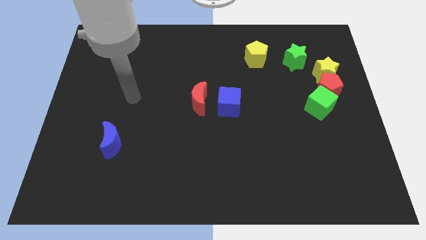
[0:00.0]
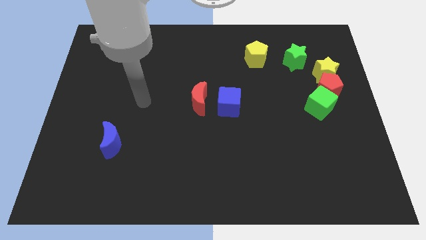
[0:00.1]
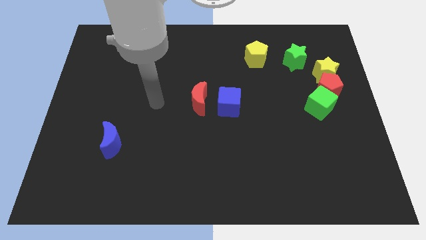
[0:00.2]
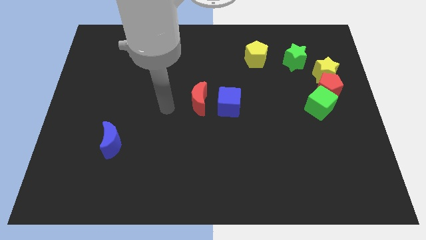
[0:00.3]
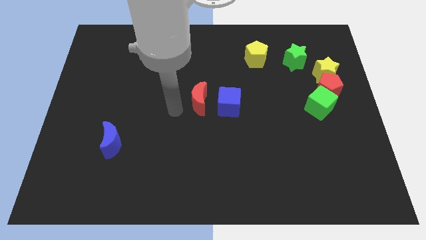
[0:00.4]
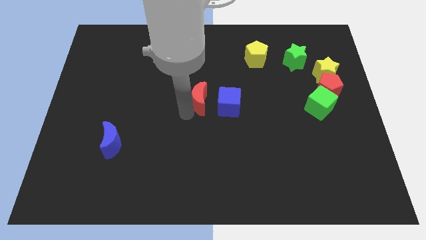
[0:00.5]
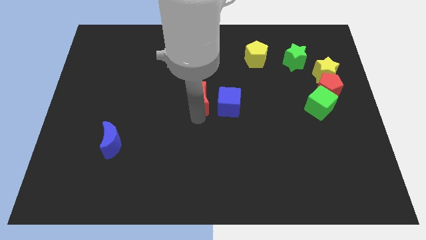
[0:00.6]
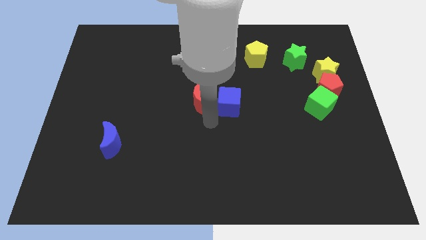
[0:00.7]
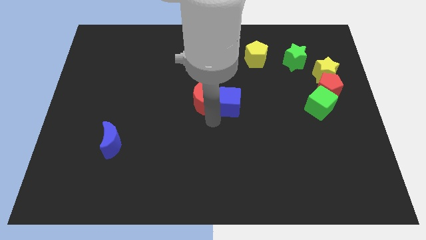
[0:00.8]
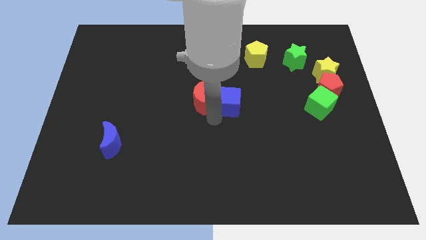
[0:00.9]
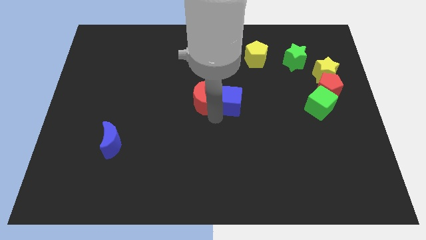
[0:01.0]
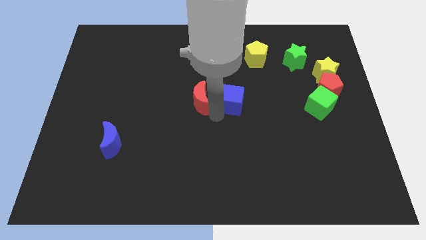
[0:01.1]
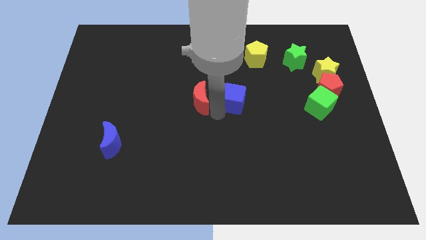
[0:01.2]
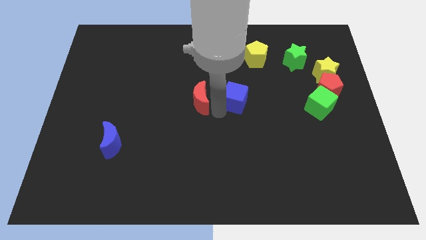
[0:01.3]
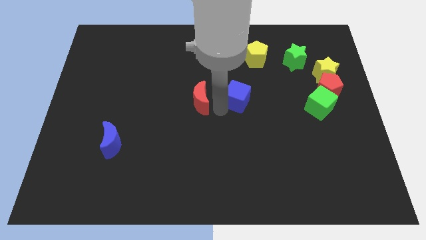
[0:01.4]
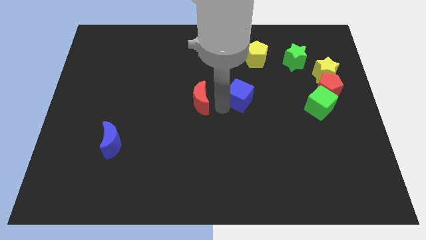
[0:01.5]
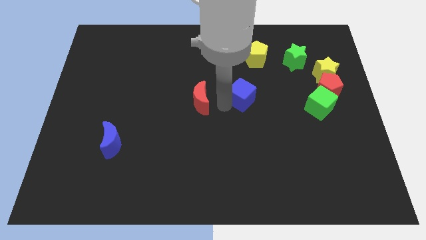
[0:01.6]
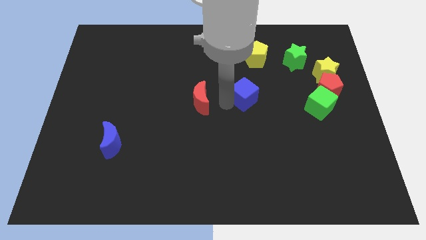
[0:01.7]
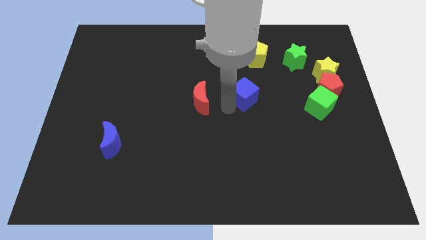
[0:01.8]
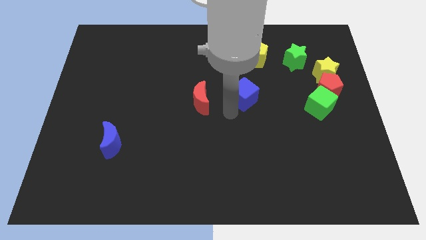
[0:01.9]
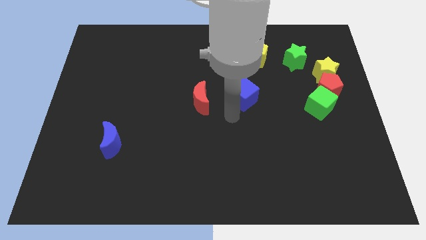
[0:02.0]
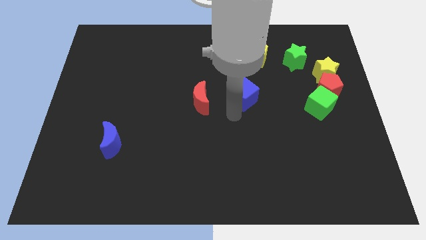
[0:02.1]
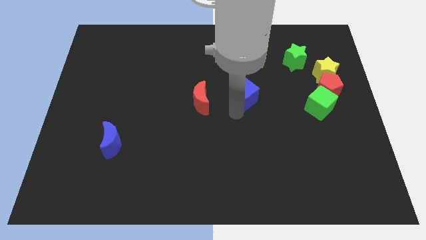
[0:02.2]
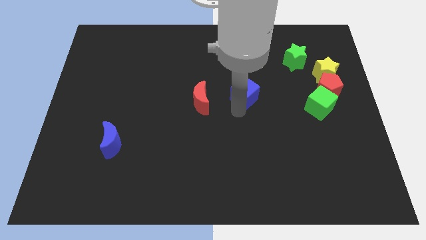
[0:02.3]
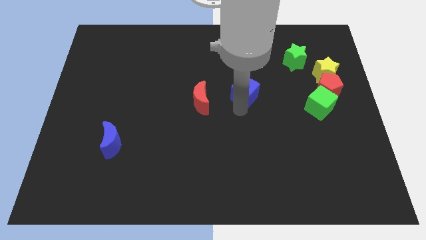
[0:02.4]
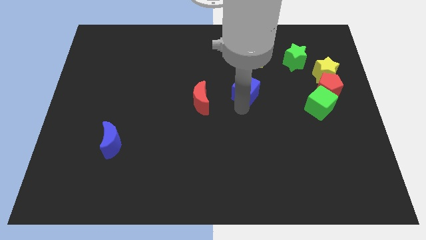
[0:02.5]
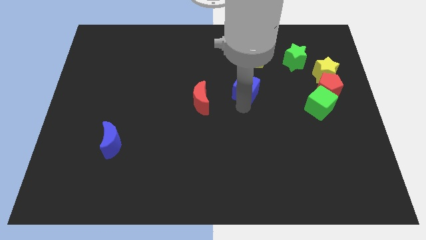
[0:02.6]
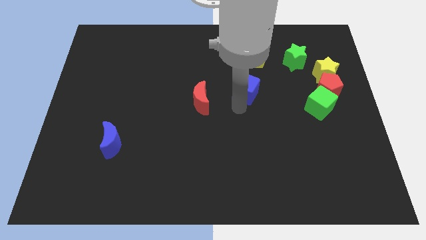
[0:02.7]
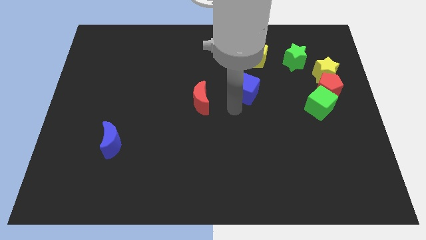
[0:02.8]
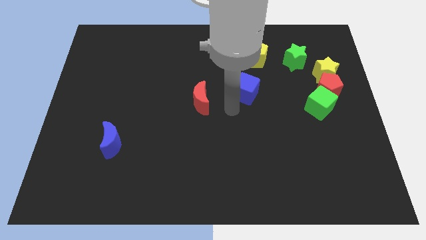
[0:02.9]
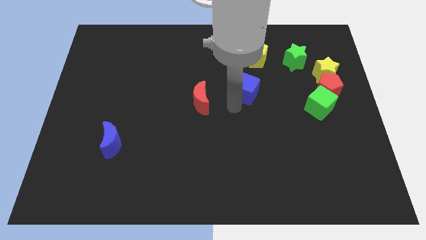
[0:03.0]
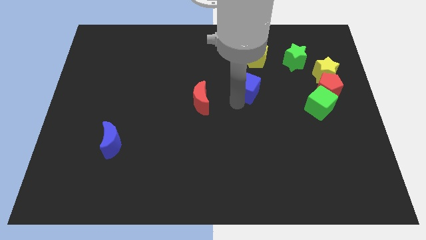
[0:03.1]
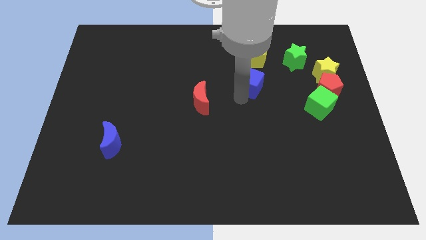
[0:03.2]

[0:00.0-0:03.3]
slightly move the blue cube diagonally up and to the right

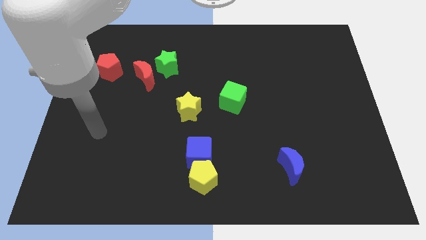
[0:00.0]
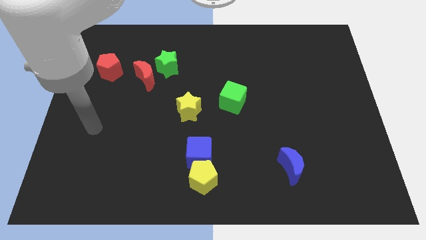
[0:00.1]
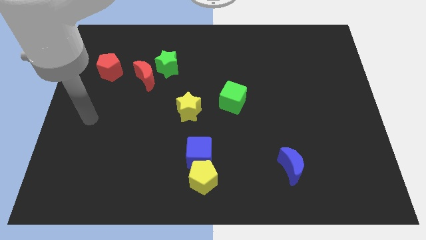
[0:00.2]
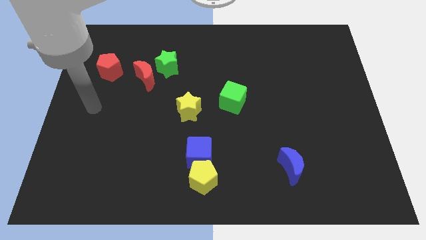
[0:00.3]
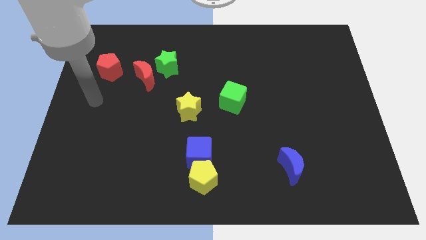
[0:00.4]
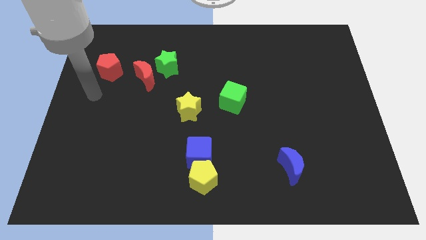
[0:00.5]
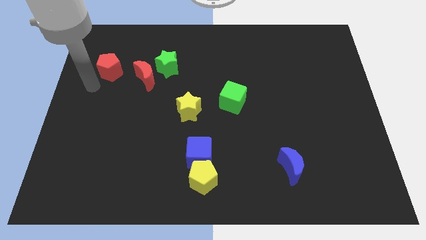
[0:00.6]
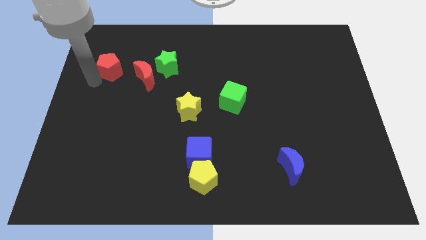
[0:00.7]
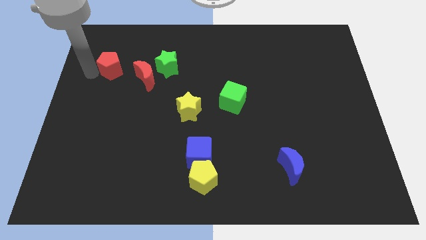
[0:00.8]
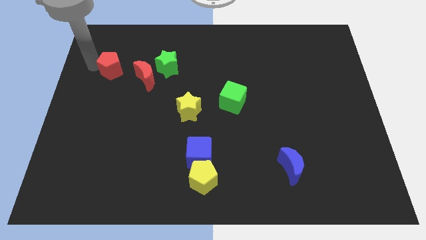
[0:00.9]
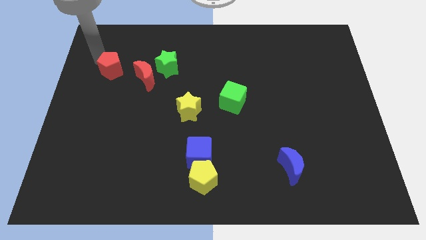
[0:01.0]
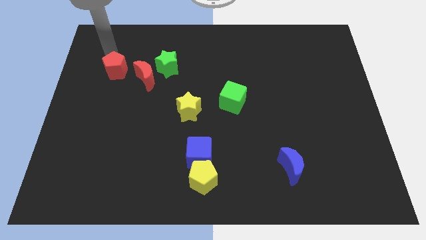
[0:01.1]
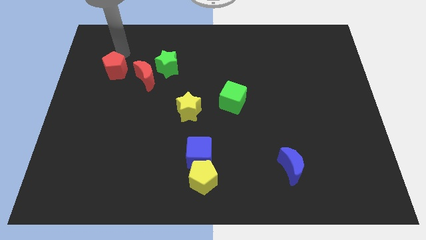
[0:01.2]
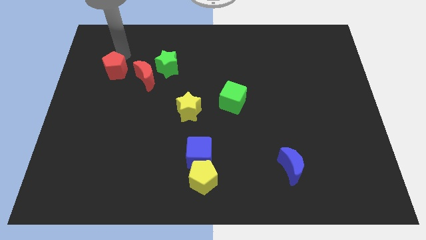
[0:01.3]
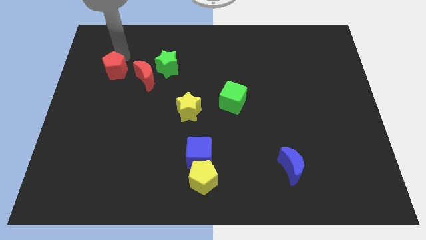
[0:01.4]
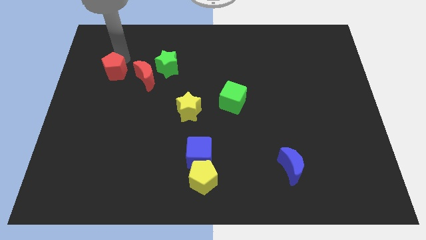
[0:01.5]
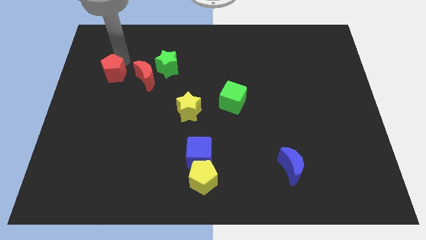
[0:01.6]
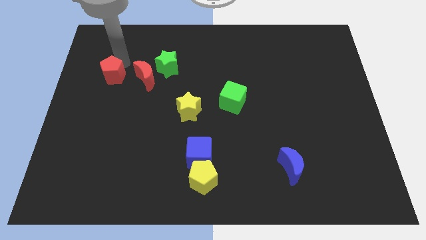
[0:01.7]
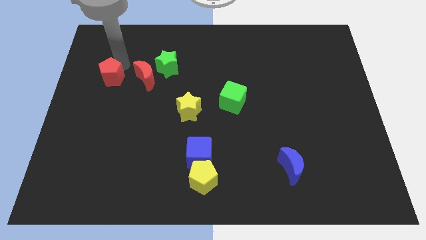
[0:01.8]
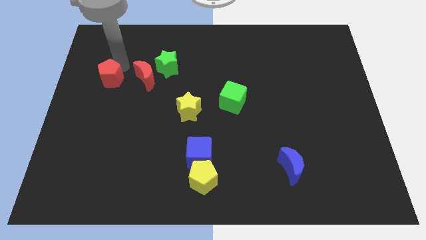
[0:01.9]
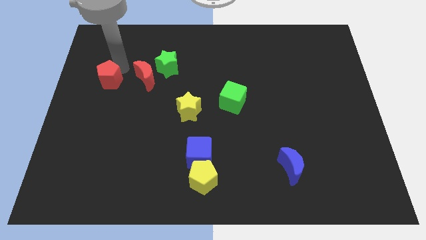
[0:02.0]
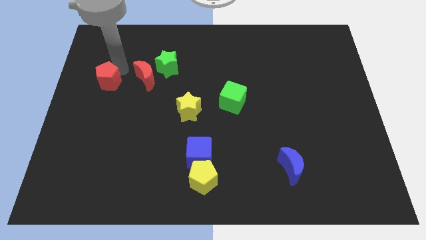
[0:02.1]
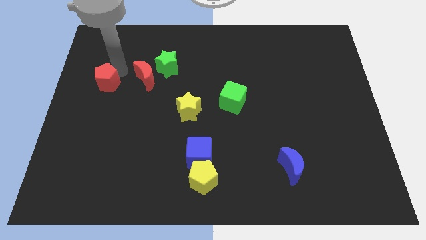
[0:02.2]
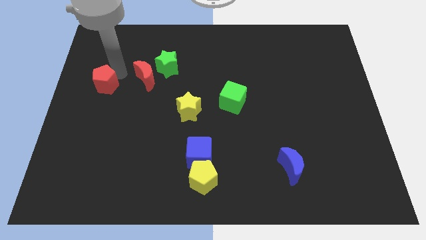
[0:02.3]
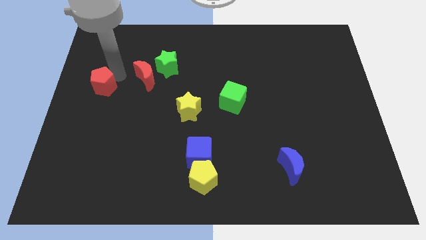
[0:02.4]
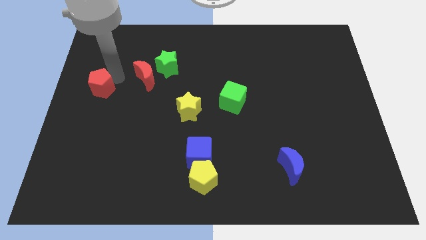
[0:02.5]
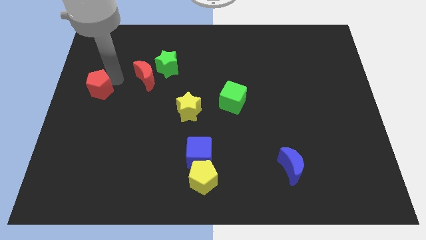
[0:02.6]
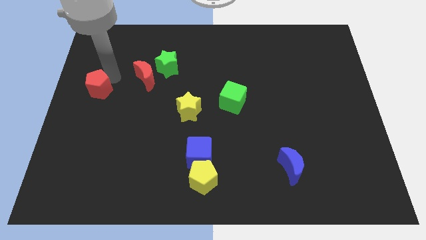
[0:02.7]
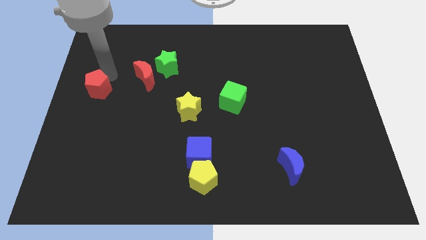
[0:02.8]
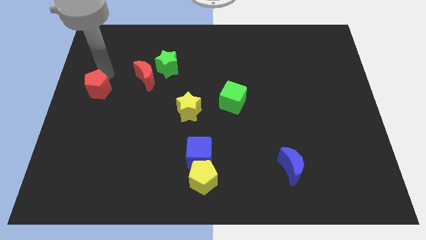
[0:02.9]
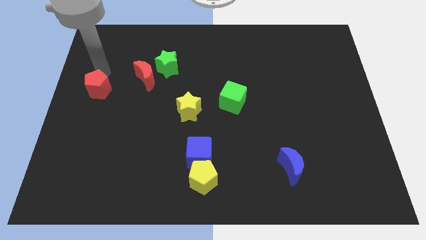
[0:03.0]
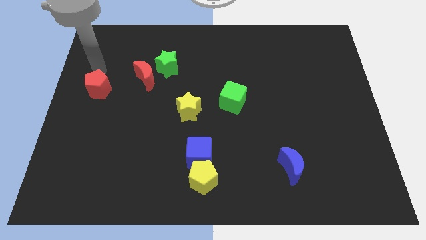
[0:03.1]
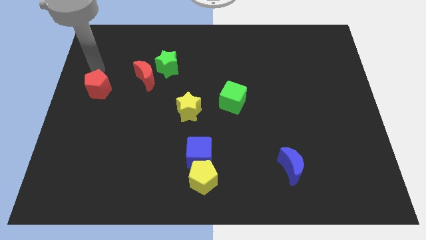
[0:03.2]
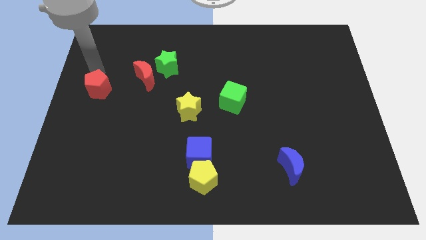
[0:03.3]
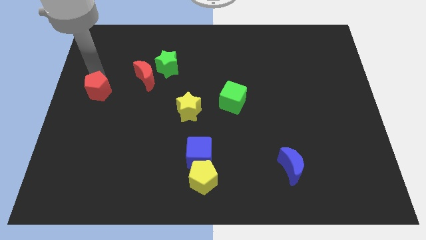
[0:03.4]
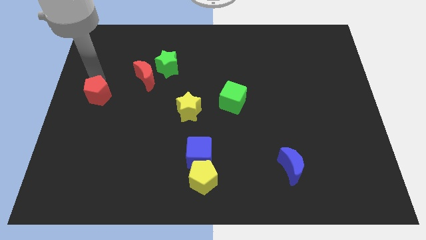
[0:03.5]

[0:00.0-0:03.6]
slide the red pentagon a little bit downwards

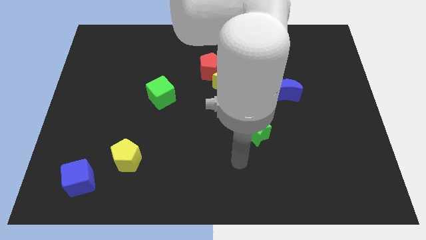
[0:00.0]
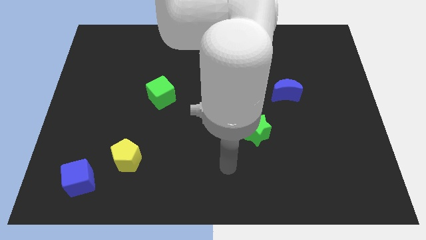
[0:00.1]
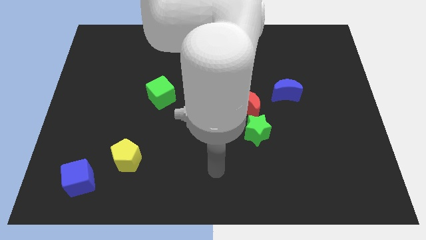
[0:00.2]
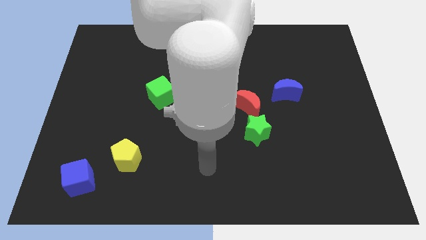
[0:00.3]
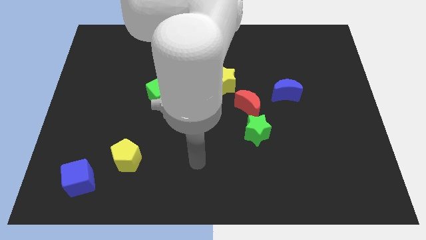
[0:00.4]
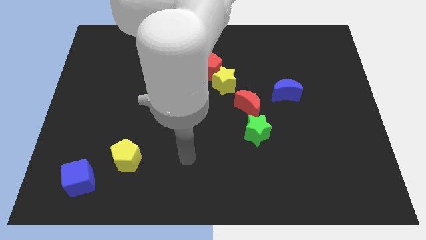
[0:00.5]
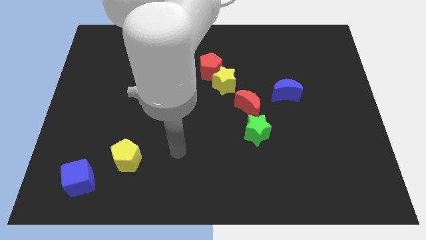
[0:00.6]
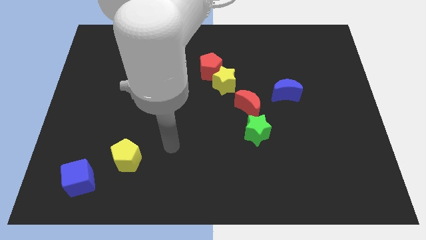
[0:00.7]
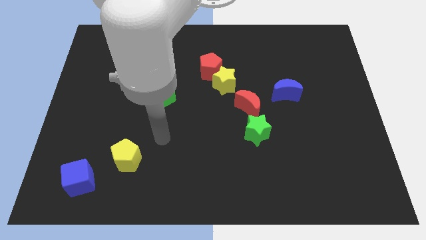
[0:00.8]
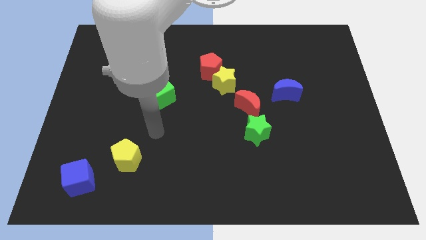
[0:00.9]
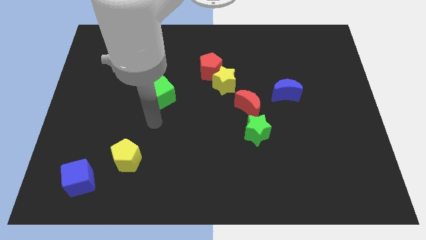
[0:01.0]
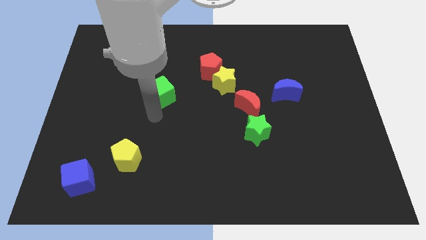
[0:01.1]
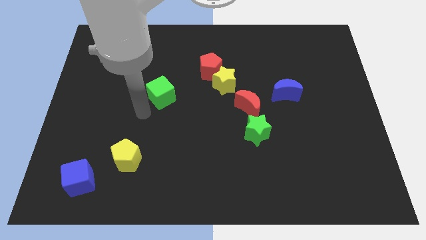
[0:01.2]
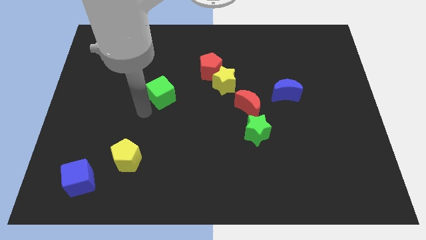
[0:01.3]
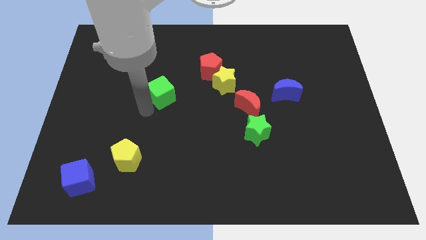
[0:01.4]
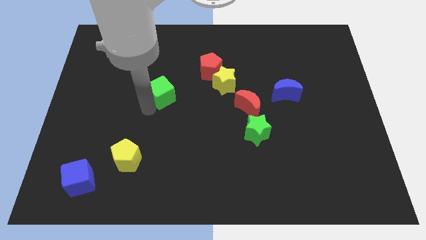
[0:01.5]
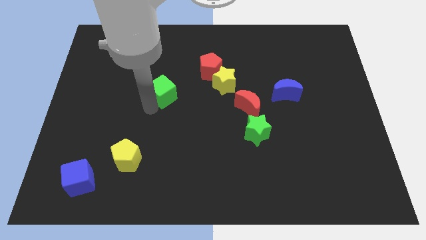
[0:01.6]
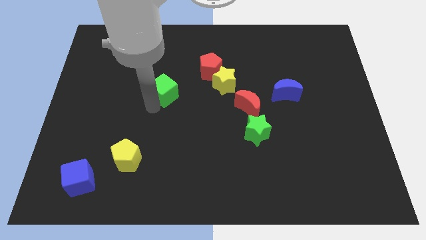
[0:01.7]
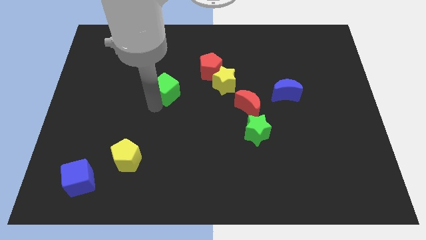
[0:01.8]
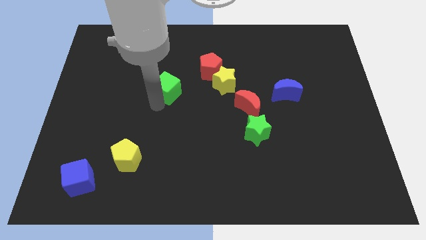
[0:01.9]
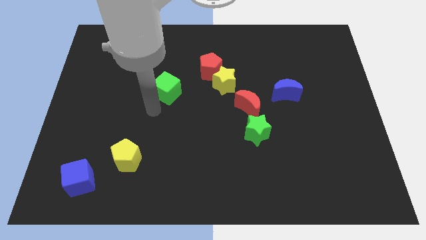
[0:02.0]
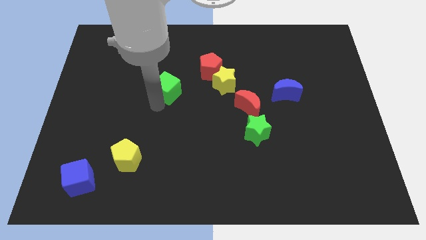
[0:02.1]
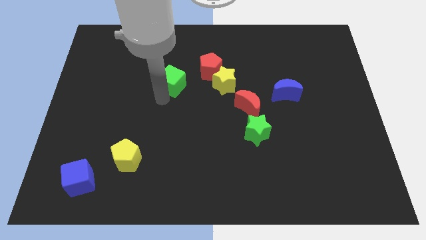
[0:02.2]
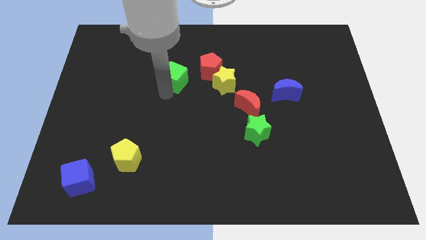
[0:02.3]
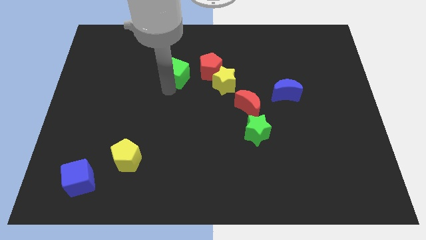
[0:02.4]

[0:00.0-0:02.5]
slightly slide the green cube diagonally upwards and to the right
